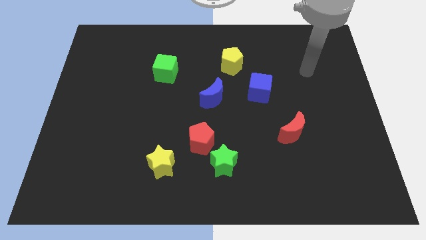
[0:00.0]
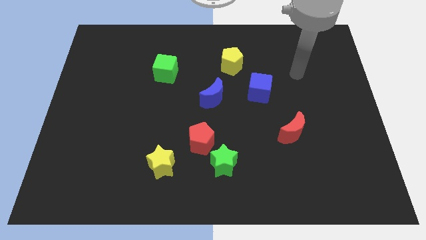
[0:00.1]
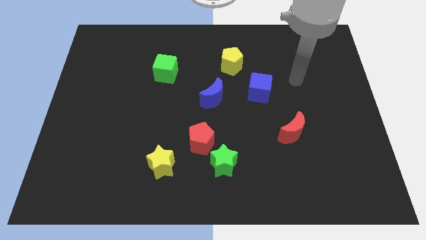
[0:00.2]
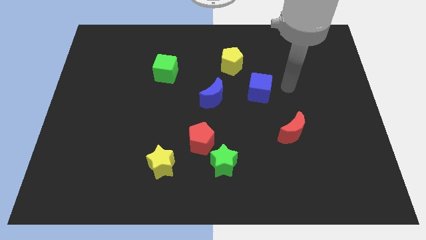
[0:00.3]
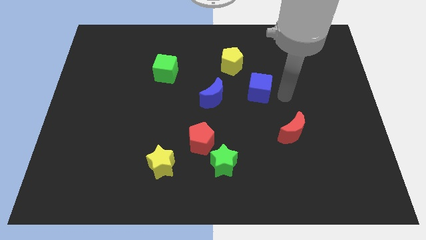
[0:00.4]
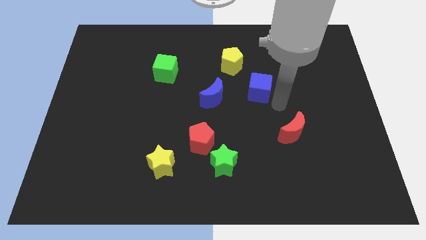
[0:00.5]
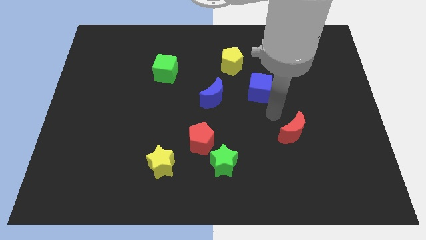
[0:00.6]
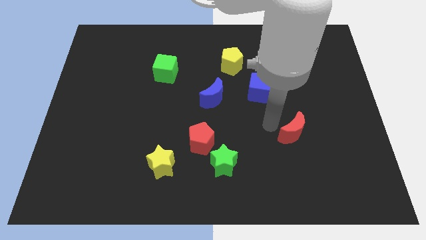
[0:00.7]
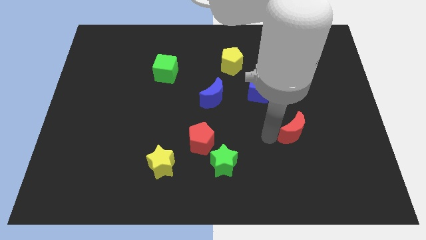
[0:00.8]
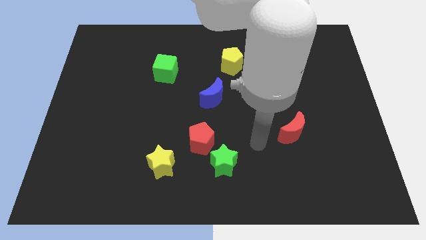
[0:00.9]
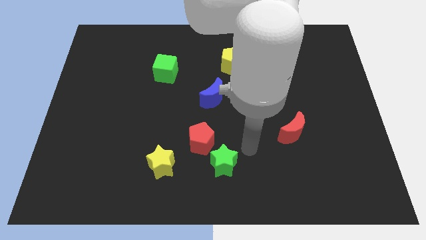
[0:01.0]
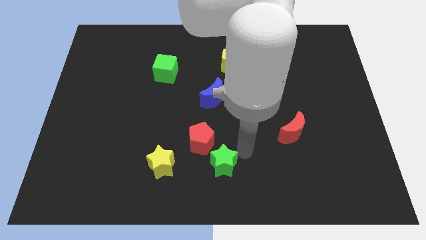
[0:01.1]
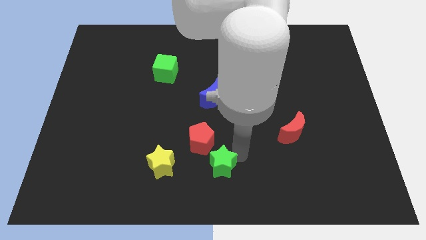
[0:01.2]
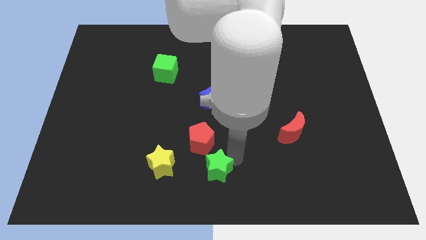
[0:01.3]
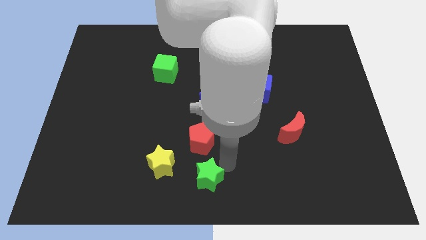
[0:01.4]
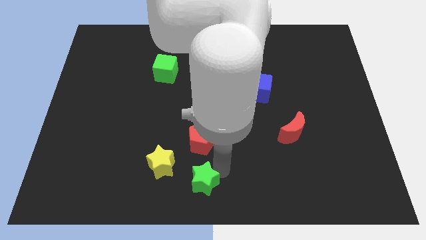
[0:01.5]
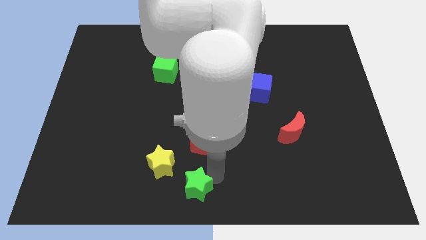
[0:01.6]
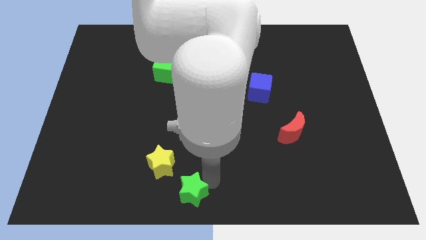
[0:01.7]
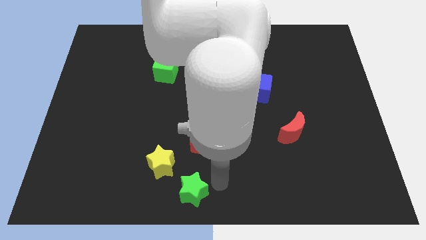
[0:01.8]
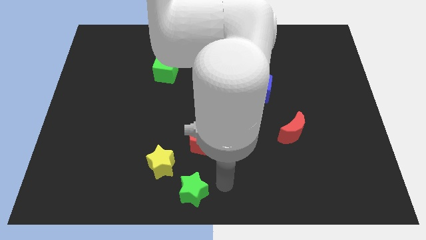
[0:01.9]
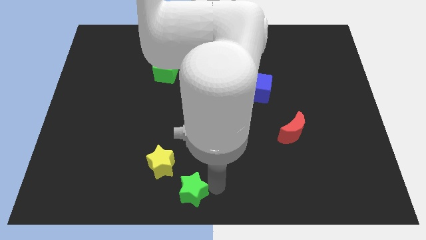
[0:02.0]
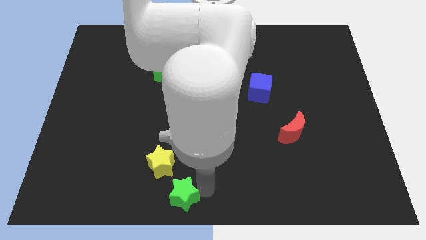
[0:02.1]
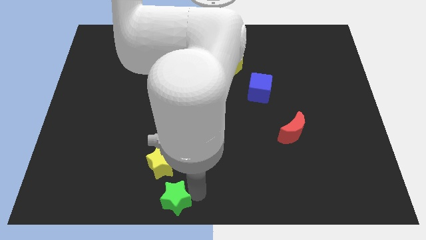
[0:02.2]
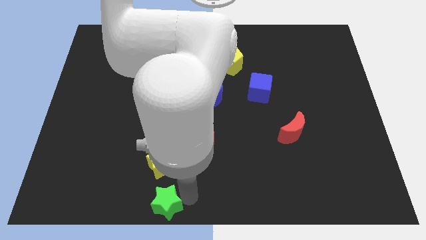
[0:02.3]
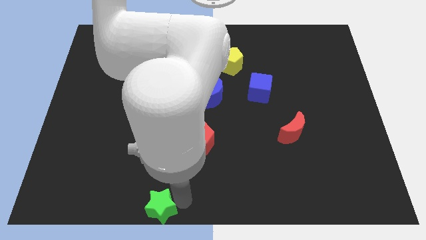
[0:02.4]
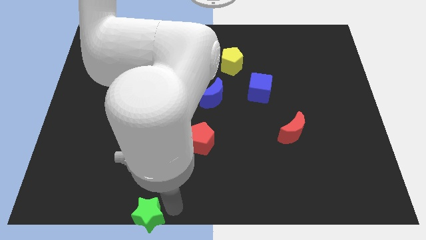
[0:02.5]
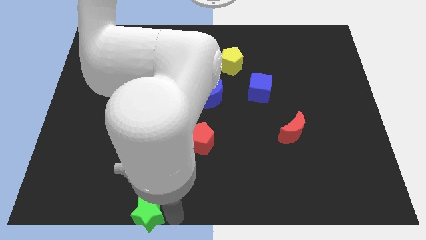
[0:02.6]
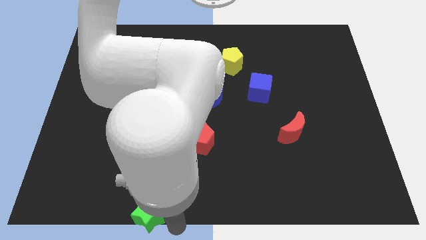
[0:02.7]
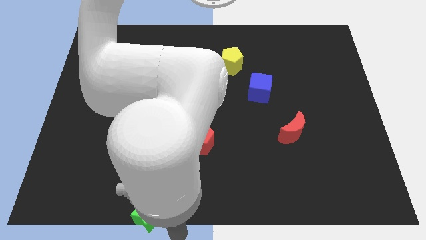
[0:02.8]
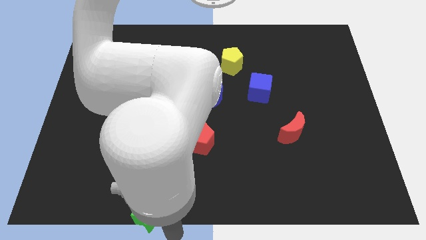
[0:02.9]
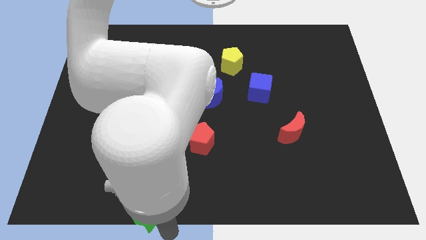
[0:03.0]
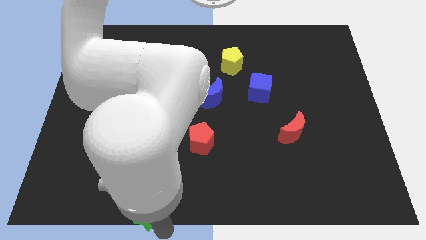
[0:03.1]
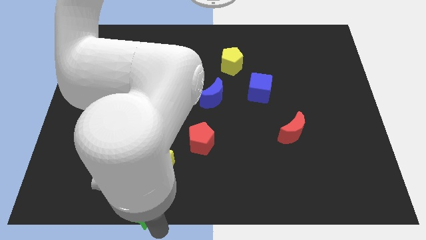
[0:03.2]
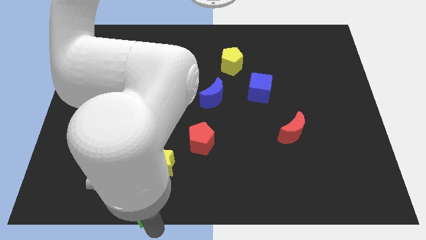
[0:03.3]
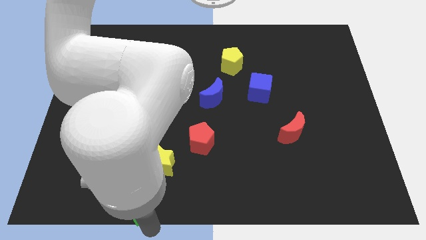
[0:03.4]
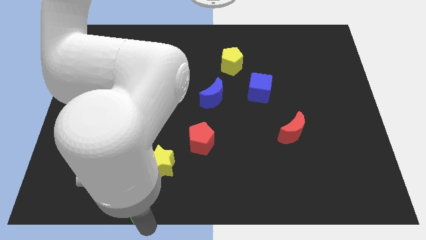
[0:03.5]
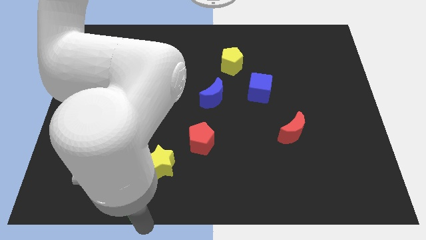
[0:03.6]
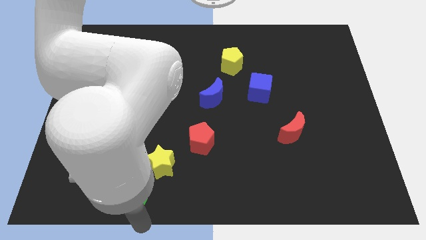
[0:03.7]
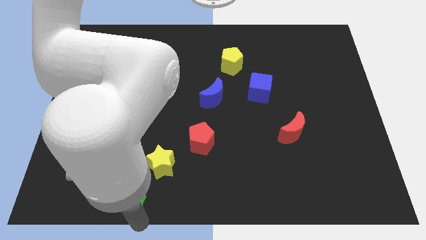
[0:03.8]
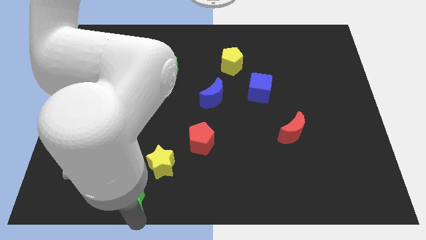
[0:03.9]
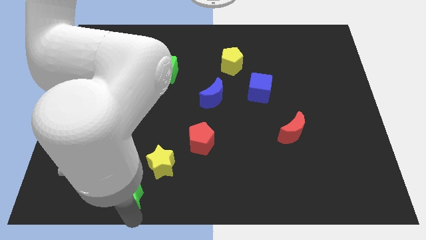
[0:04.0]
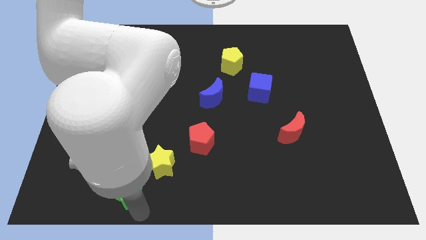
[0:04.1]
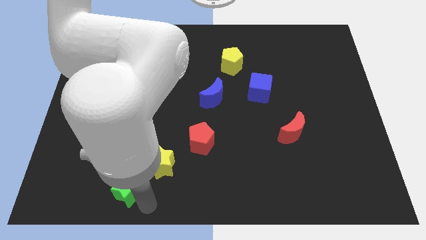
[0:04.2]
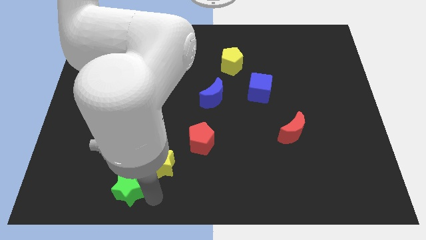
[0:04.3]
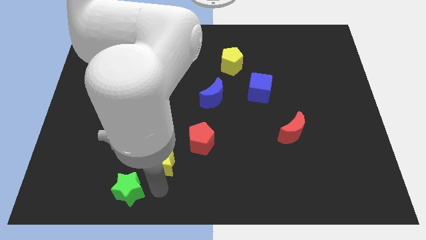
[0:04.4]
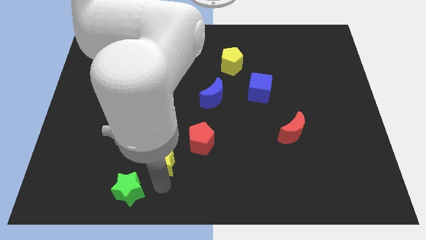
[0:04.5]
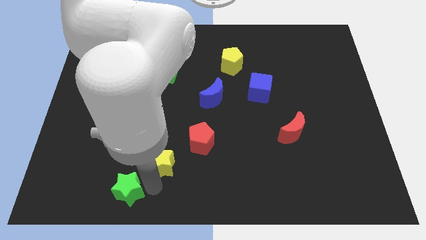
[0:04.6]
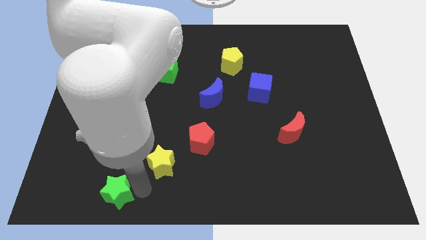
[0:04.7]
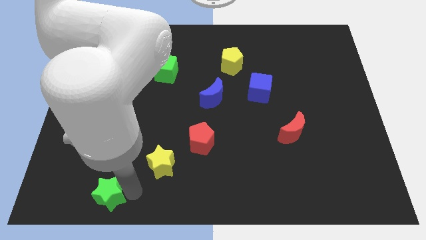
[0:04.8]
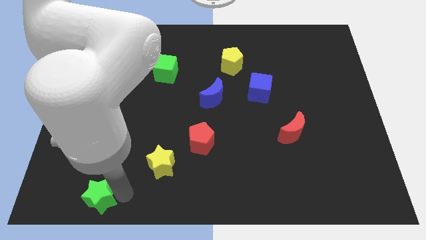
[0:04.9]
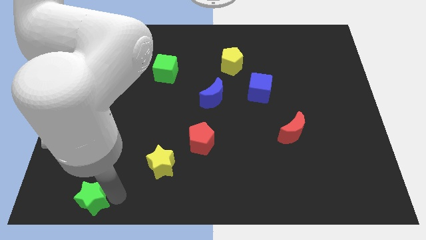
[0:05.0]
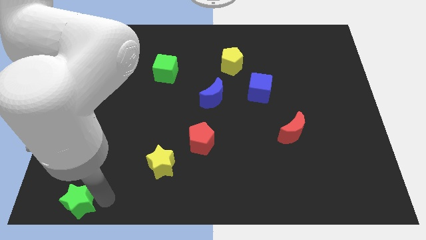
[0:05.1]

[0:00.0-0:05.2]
push the green star to the bottom left

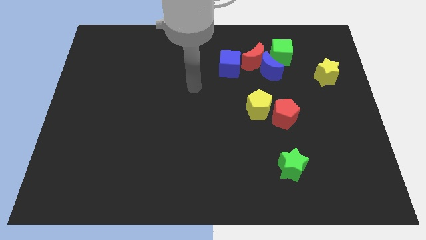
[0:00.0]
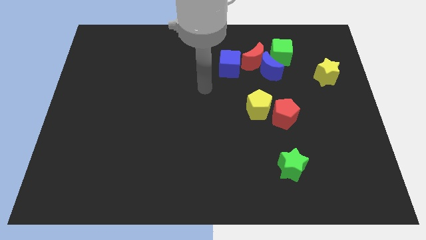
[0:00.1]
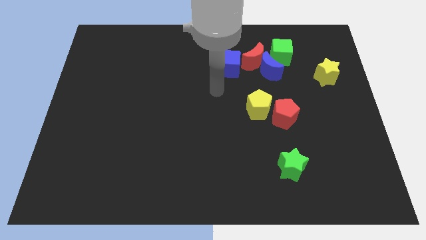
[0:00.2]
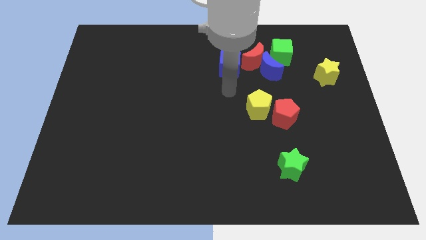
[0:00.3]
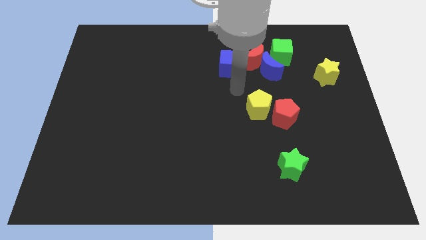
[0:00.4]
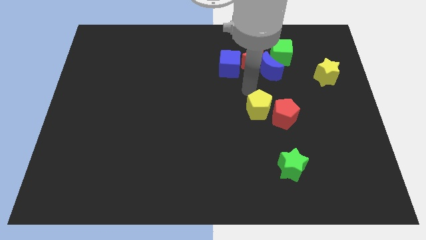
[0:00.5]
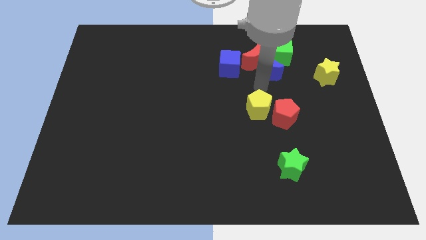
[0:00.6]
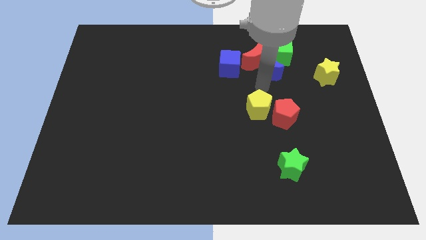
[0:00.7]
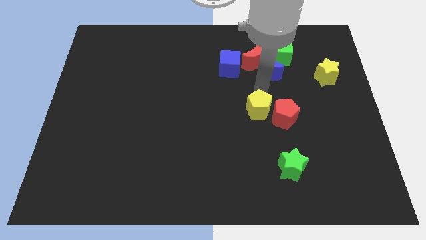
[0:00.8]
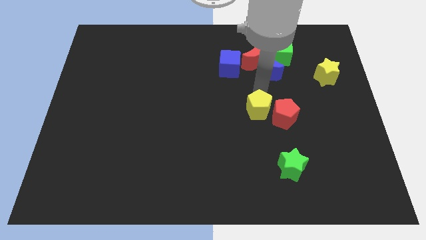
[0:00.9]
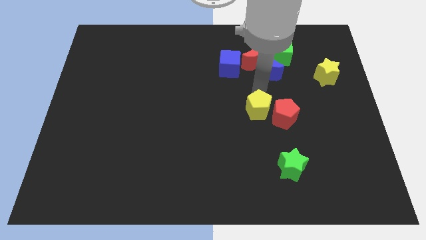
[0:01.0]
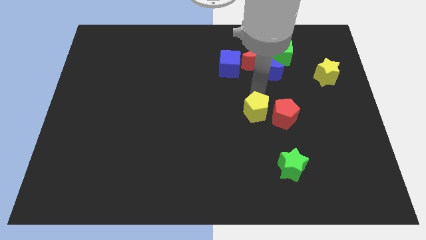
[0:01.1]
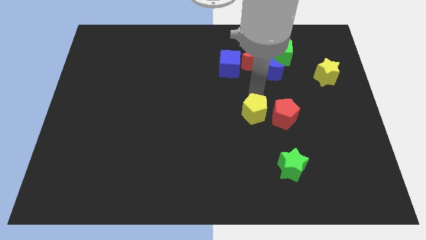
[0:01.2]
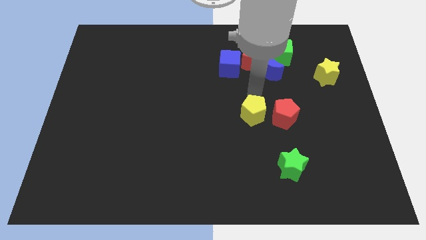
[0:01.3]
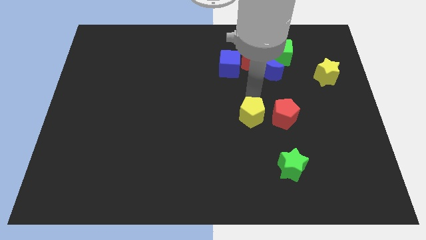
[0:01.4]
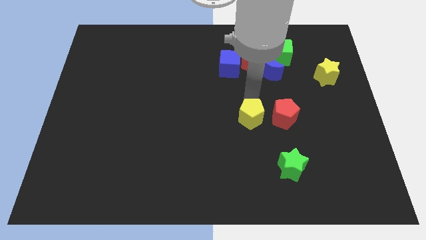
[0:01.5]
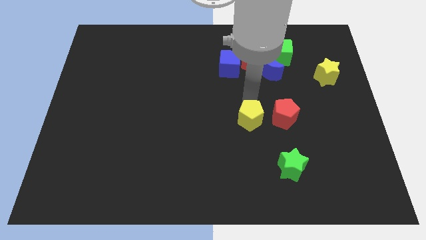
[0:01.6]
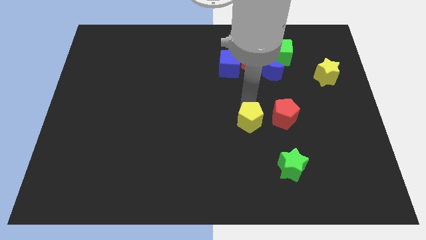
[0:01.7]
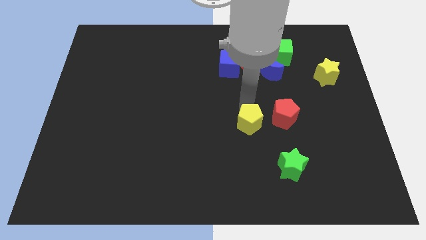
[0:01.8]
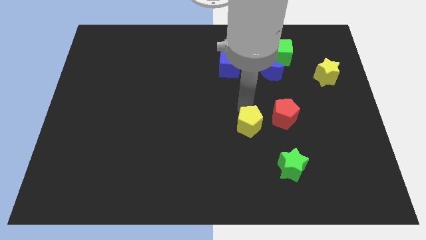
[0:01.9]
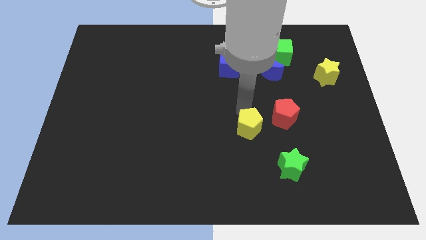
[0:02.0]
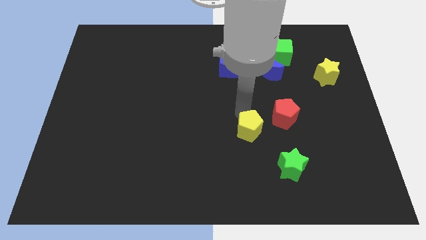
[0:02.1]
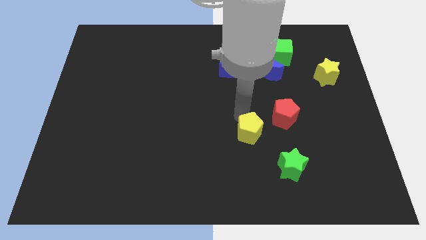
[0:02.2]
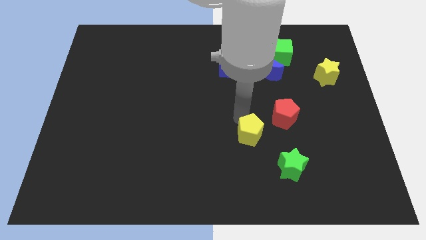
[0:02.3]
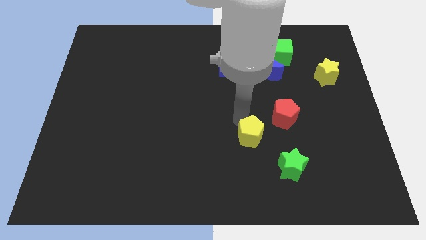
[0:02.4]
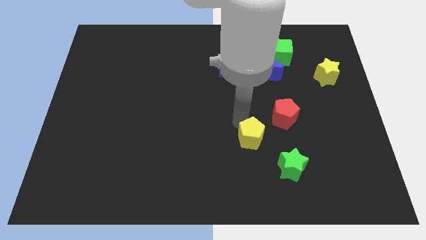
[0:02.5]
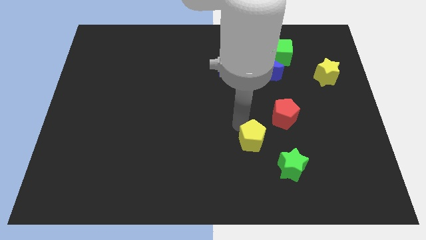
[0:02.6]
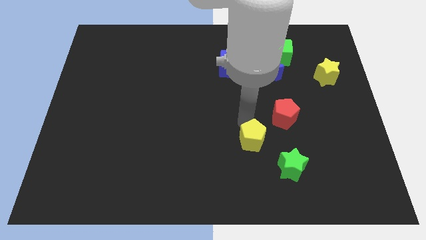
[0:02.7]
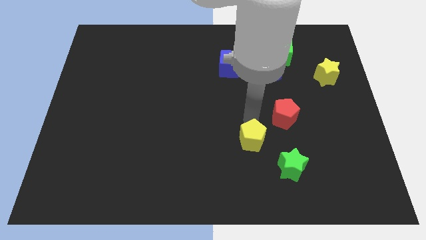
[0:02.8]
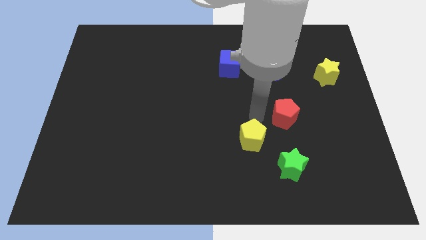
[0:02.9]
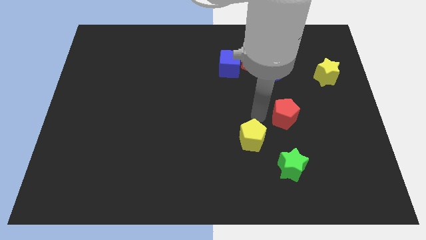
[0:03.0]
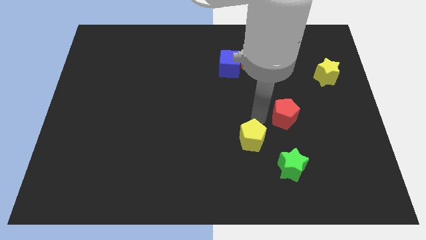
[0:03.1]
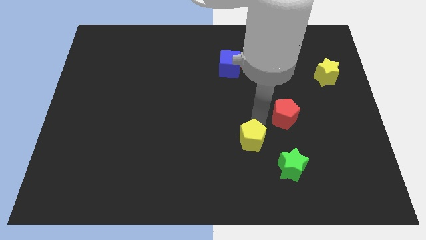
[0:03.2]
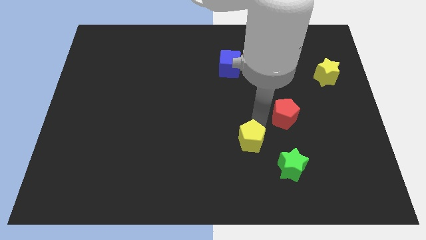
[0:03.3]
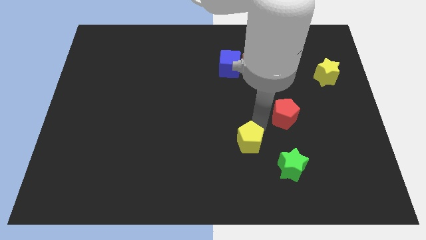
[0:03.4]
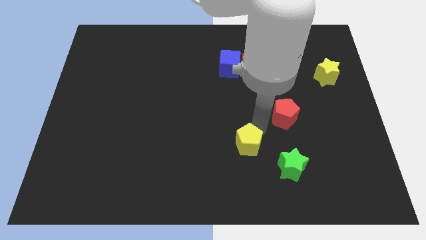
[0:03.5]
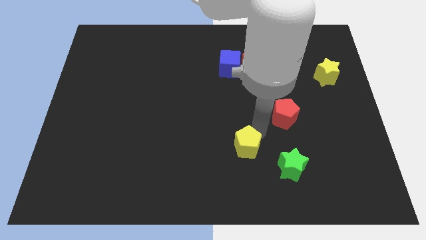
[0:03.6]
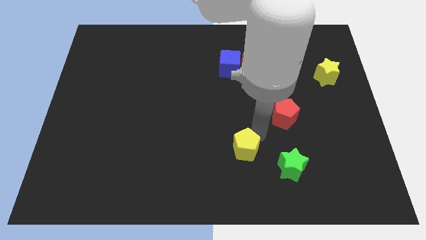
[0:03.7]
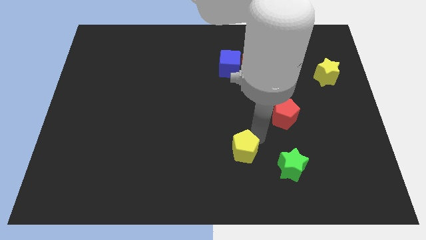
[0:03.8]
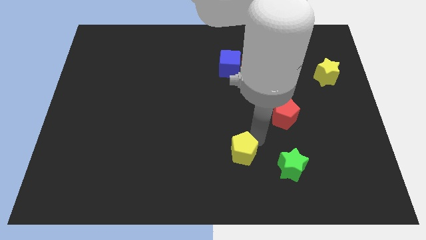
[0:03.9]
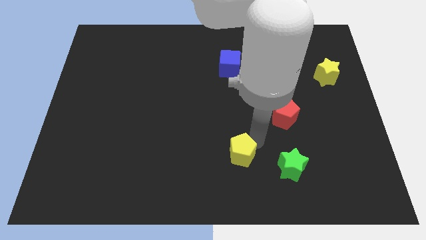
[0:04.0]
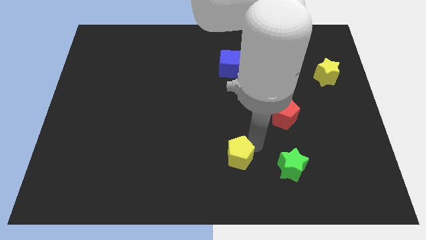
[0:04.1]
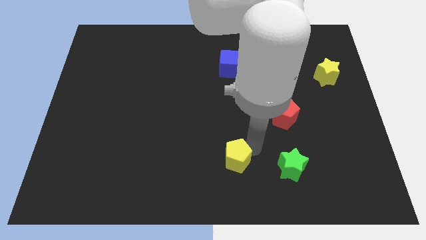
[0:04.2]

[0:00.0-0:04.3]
put the yellow pentagon to the bottom side
